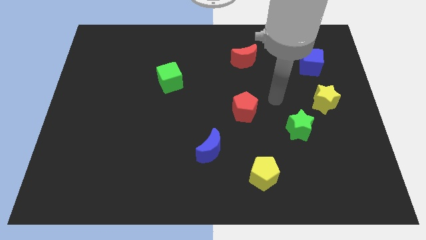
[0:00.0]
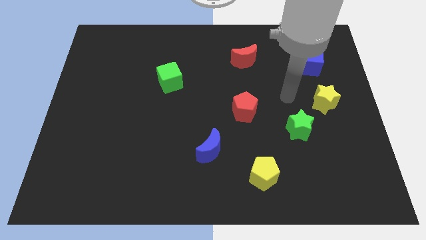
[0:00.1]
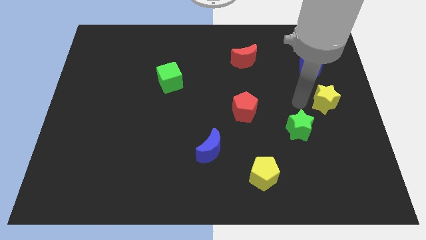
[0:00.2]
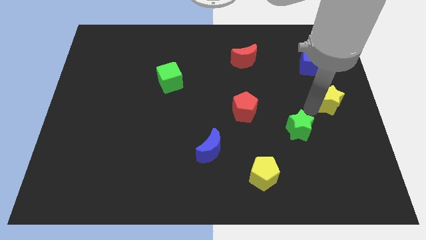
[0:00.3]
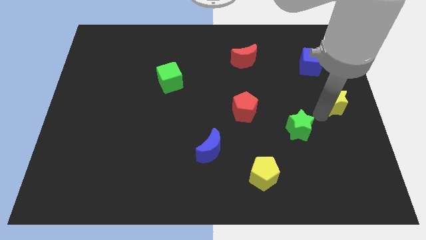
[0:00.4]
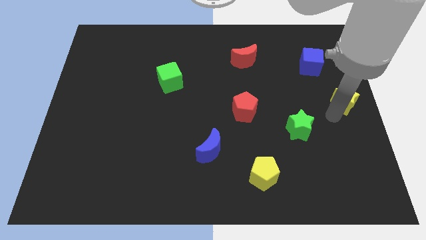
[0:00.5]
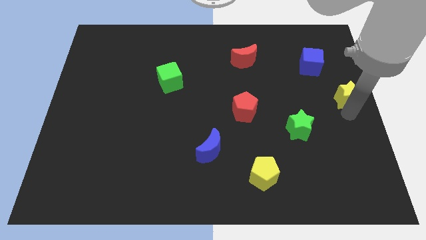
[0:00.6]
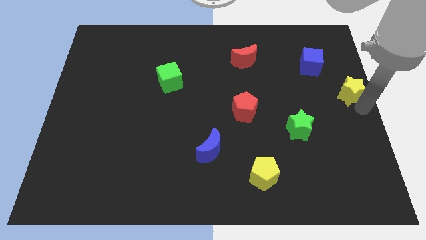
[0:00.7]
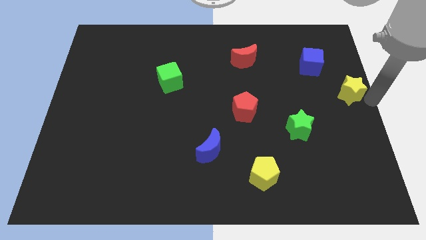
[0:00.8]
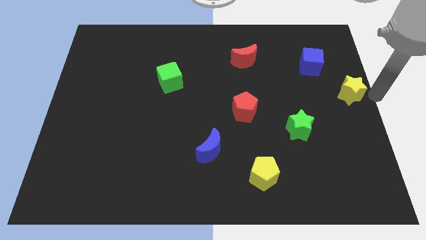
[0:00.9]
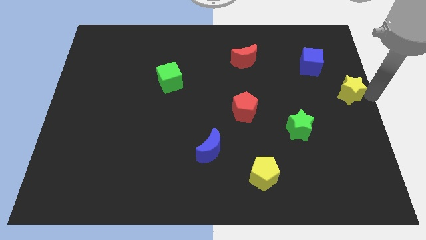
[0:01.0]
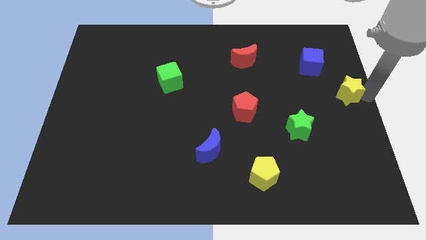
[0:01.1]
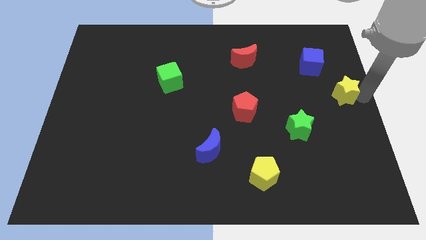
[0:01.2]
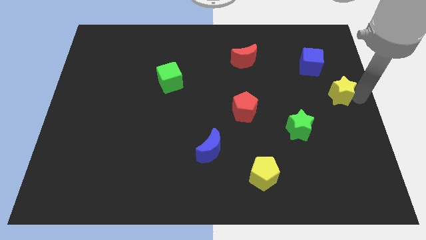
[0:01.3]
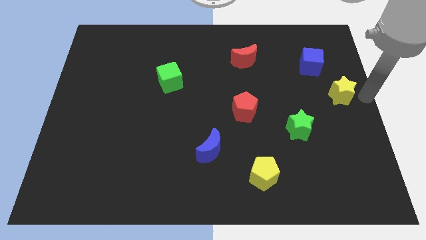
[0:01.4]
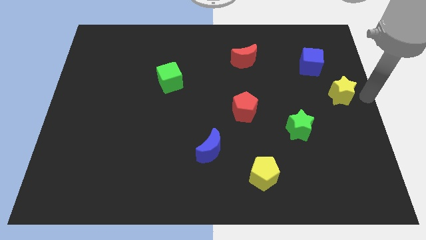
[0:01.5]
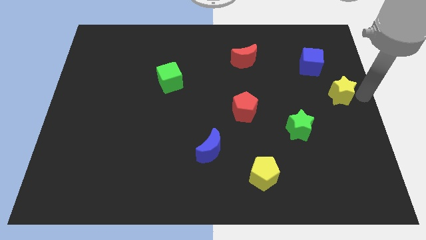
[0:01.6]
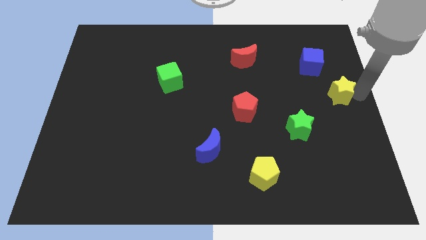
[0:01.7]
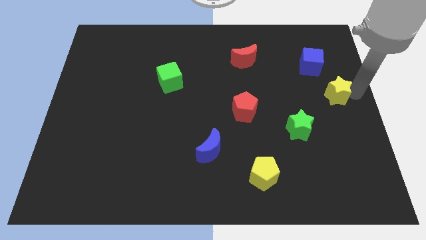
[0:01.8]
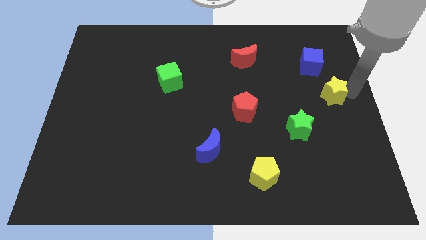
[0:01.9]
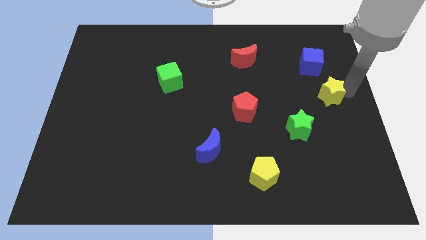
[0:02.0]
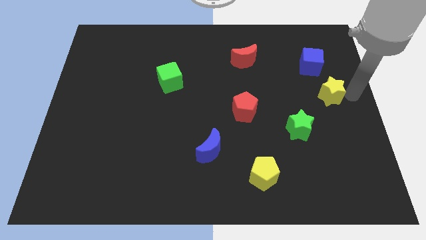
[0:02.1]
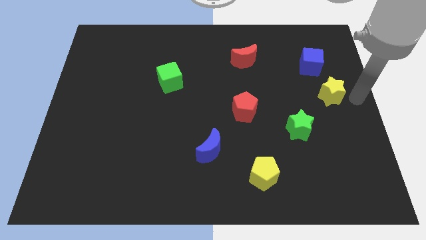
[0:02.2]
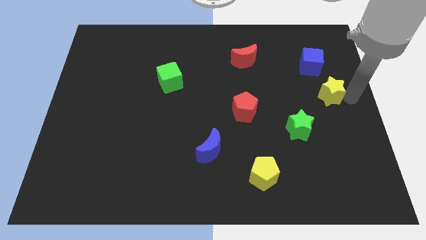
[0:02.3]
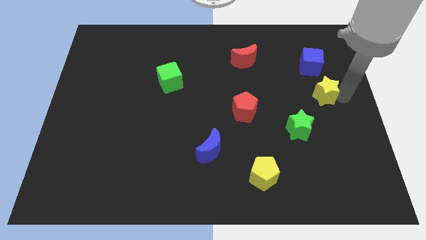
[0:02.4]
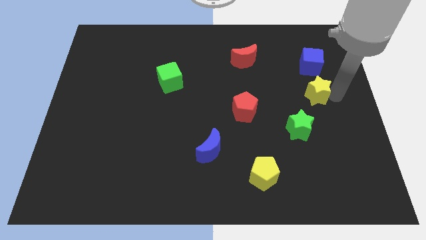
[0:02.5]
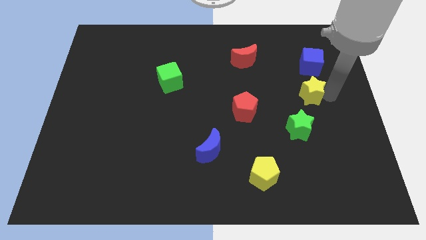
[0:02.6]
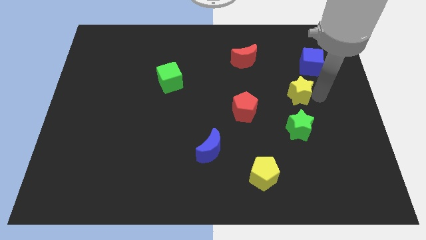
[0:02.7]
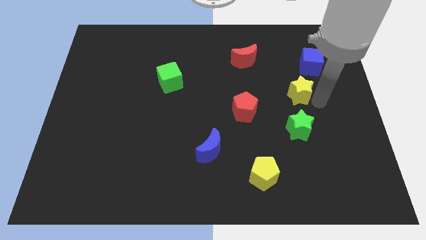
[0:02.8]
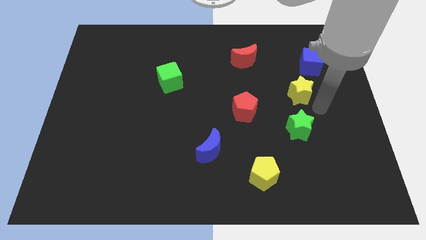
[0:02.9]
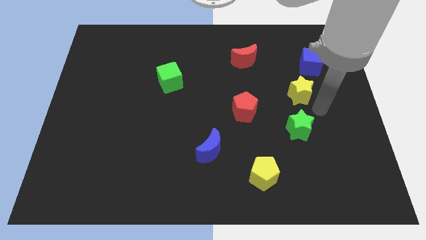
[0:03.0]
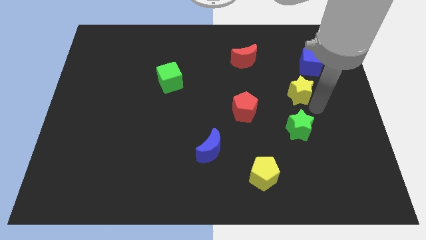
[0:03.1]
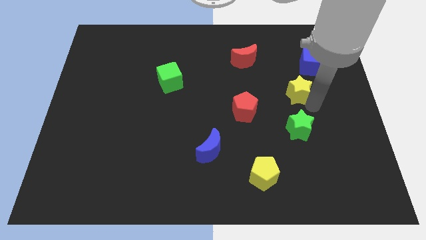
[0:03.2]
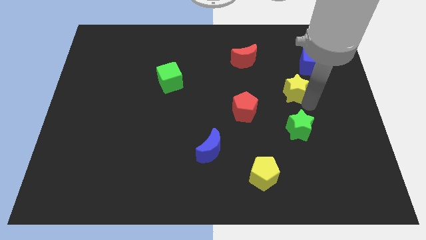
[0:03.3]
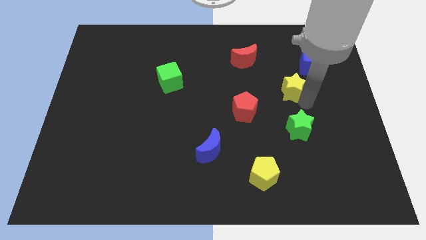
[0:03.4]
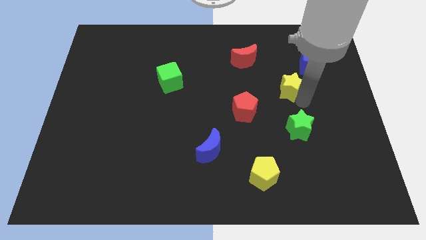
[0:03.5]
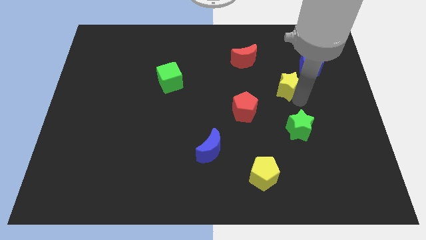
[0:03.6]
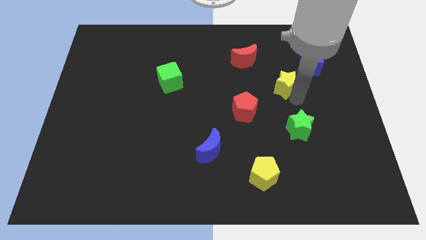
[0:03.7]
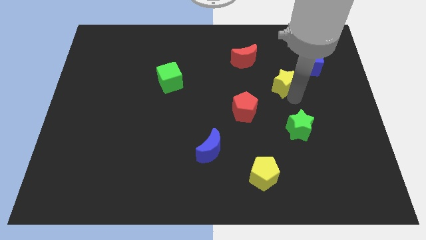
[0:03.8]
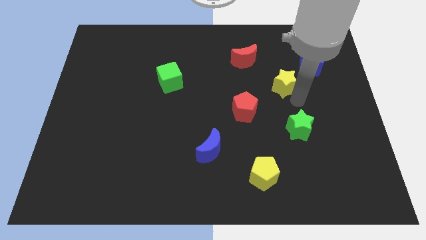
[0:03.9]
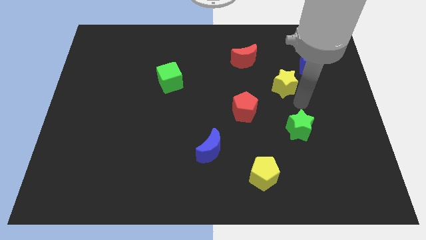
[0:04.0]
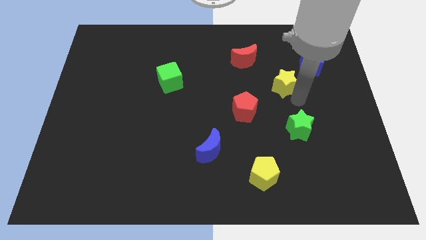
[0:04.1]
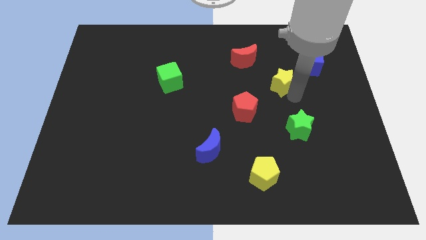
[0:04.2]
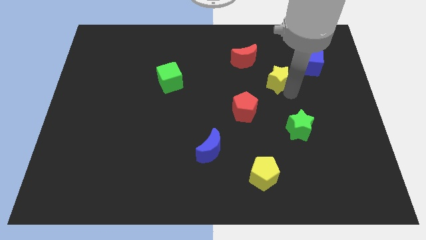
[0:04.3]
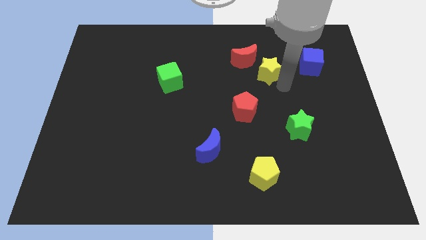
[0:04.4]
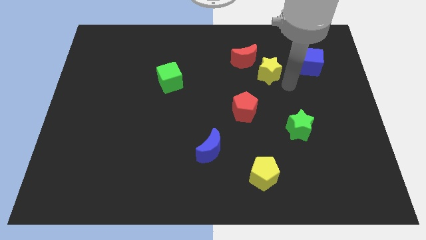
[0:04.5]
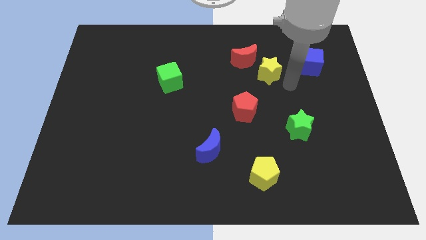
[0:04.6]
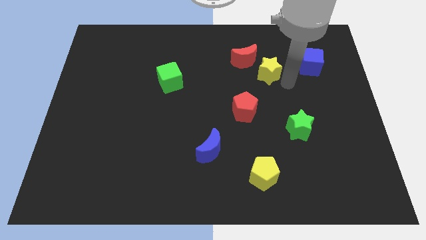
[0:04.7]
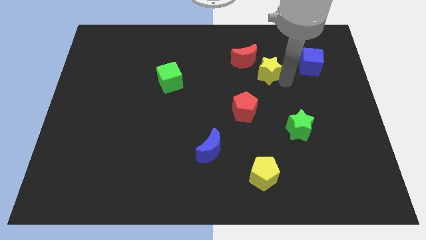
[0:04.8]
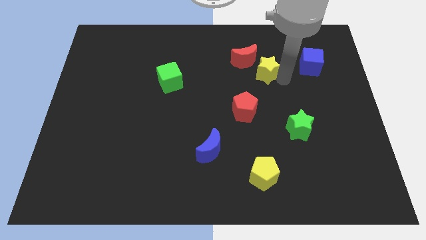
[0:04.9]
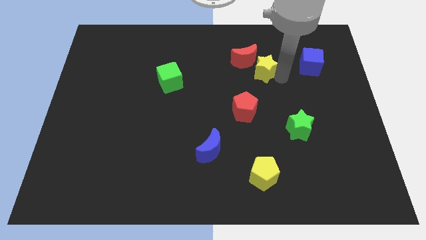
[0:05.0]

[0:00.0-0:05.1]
move the yellow star towards the red moon

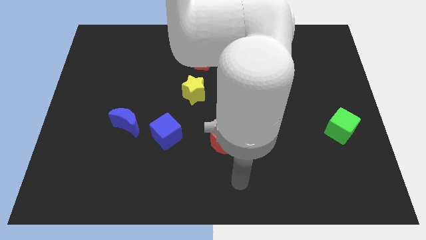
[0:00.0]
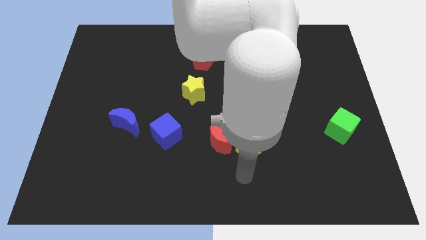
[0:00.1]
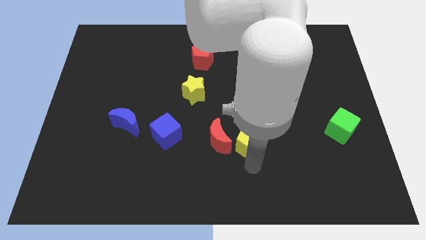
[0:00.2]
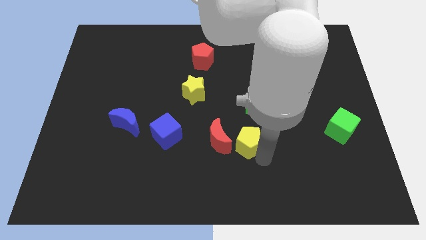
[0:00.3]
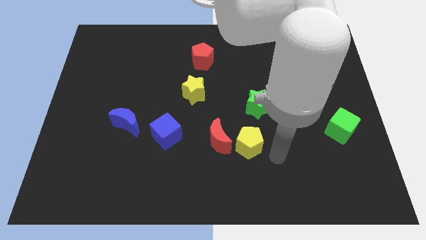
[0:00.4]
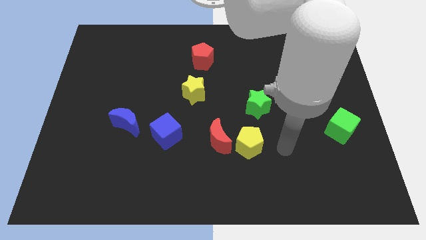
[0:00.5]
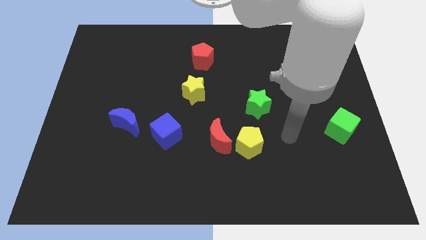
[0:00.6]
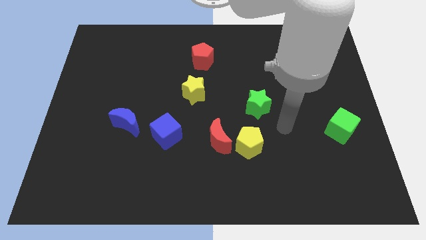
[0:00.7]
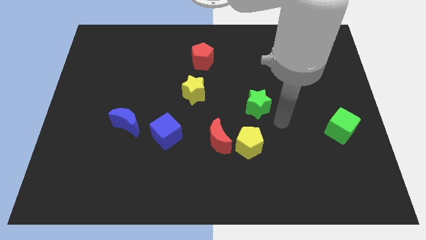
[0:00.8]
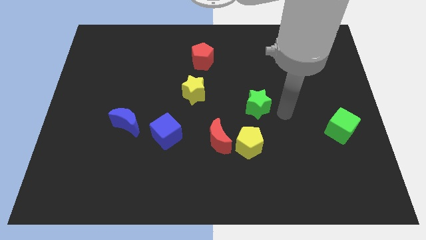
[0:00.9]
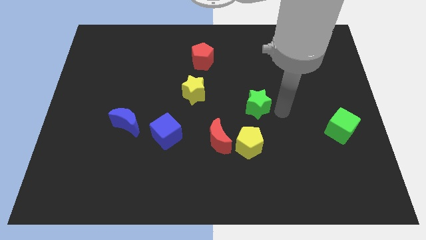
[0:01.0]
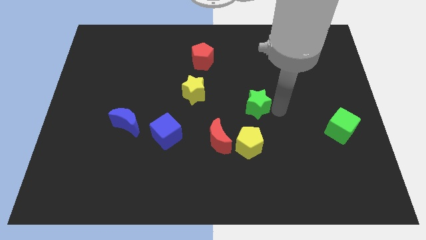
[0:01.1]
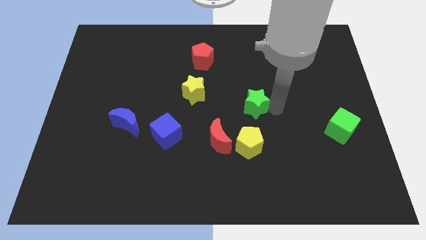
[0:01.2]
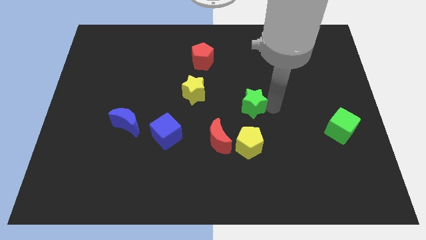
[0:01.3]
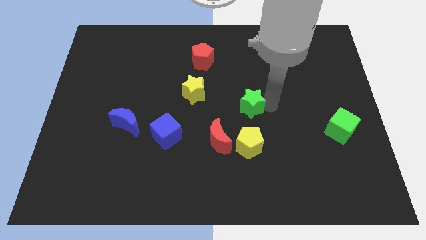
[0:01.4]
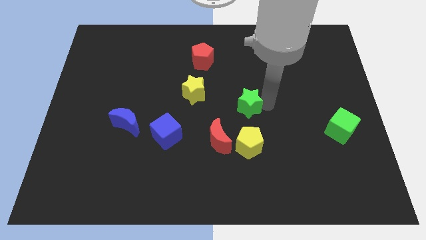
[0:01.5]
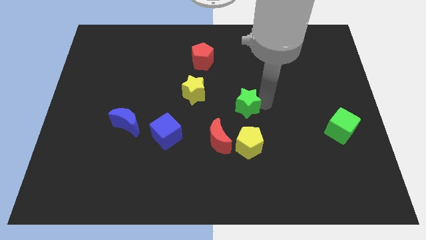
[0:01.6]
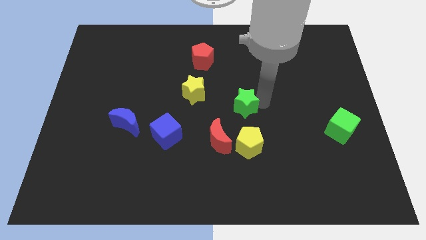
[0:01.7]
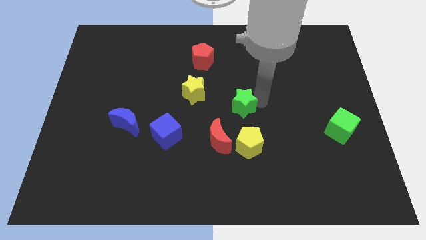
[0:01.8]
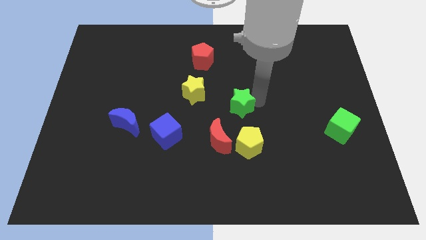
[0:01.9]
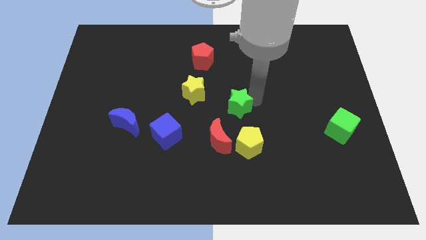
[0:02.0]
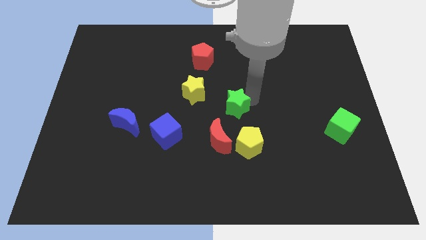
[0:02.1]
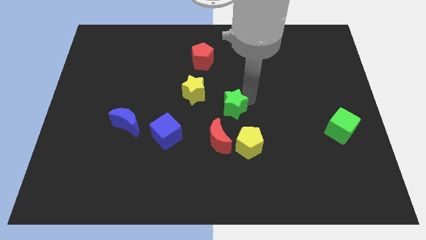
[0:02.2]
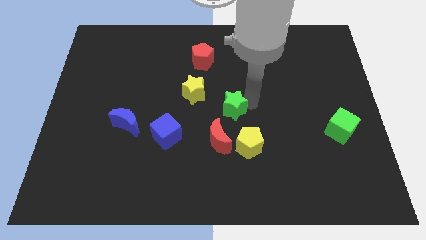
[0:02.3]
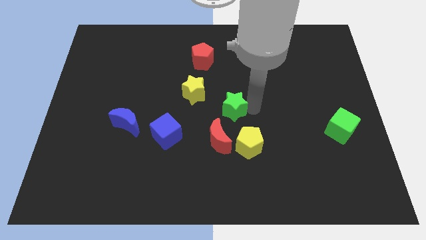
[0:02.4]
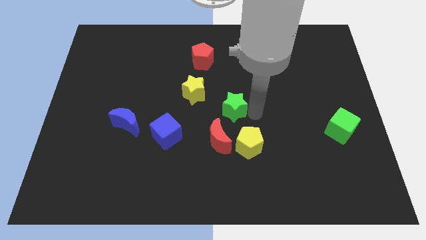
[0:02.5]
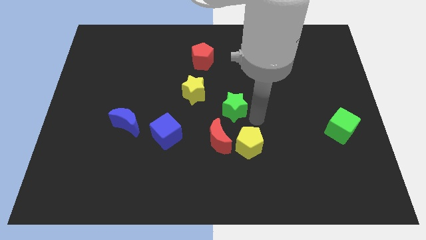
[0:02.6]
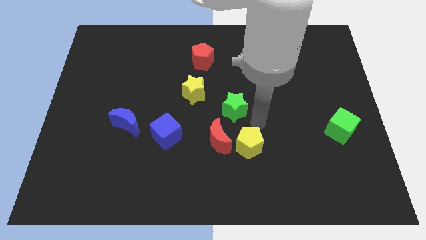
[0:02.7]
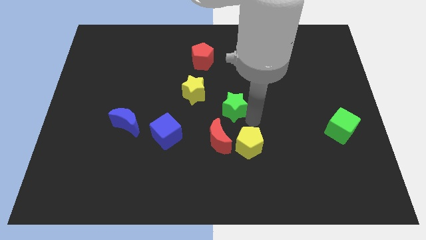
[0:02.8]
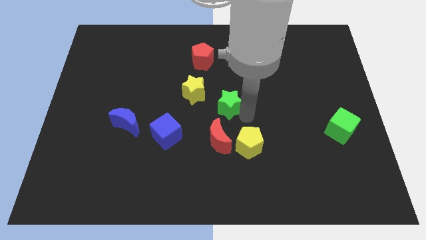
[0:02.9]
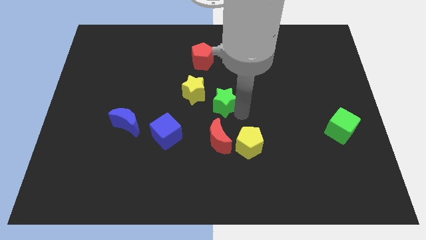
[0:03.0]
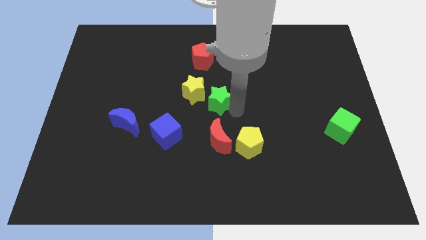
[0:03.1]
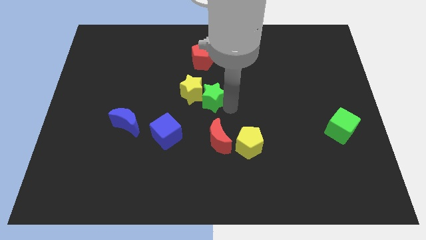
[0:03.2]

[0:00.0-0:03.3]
push the green star close to the yellow star
